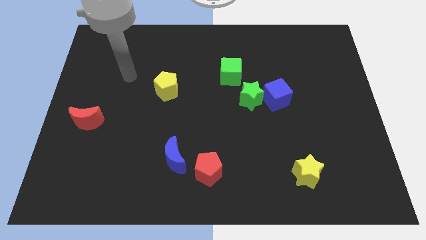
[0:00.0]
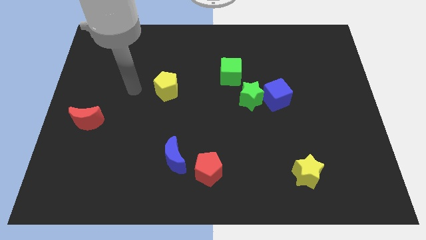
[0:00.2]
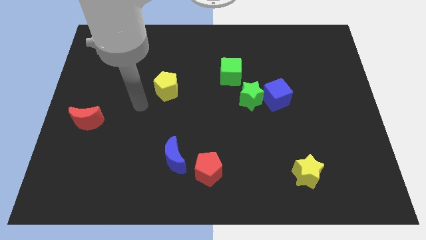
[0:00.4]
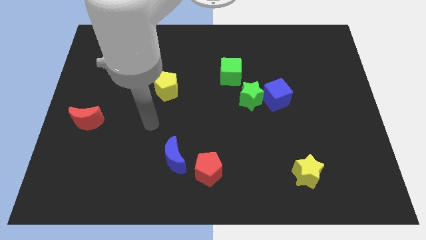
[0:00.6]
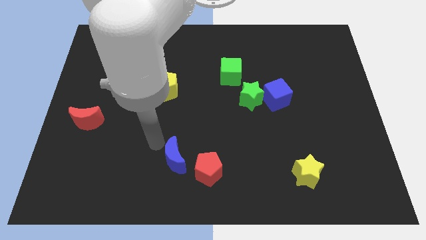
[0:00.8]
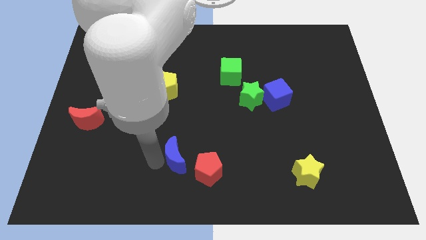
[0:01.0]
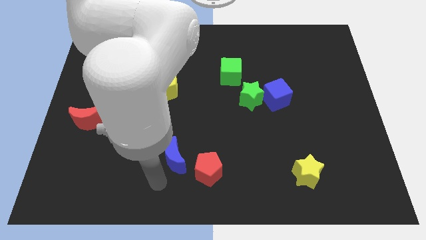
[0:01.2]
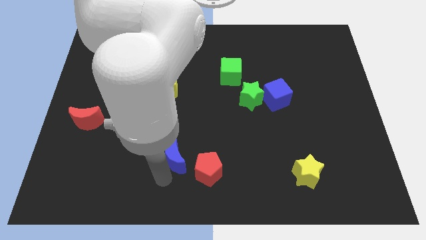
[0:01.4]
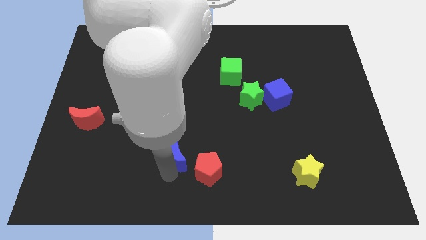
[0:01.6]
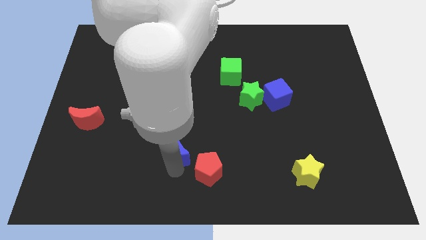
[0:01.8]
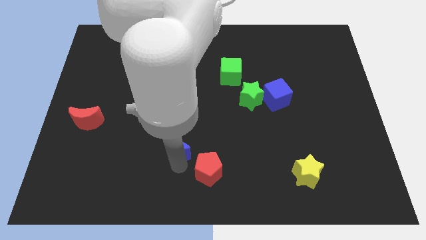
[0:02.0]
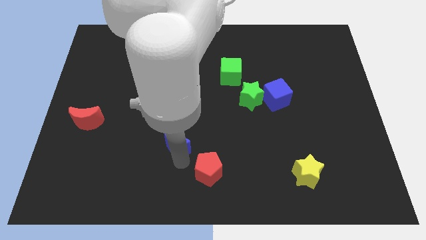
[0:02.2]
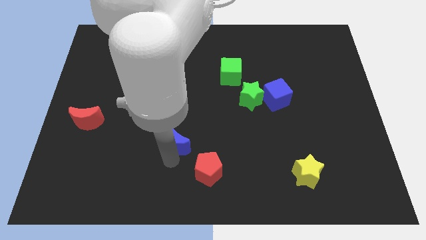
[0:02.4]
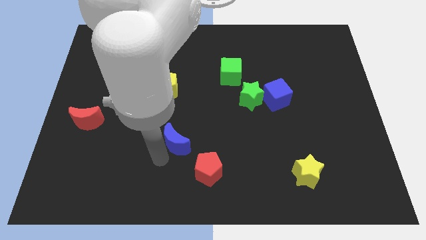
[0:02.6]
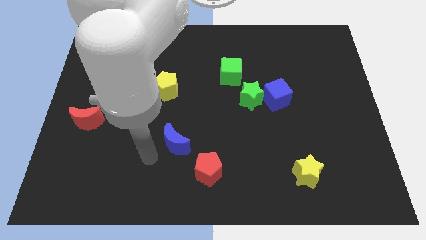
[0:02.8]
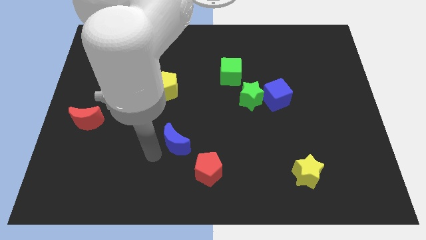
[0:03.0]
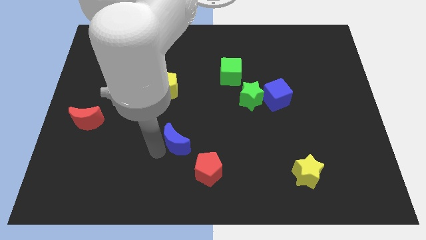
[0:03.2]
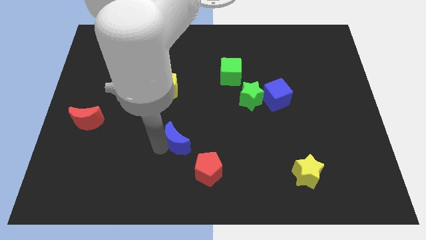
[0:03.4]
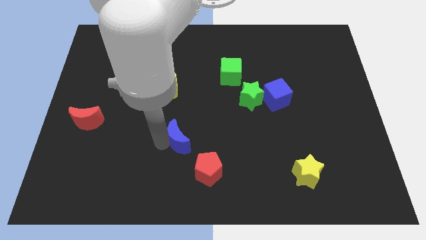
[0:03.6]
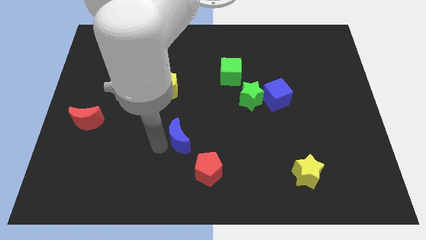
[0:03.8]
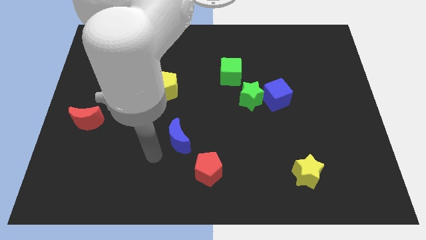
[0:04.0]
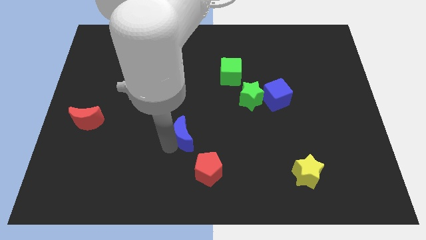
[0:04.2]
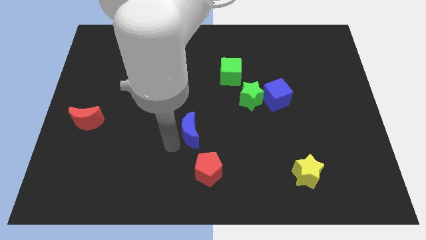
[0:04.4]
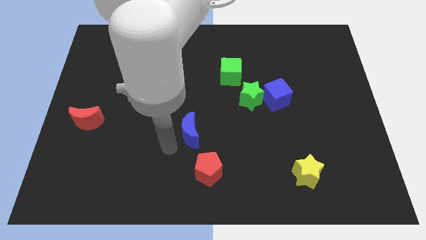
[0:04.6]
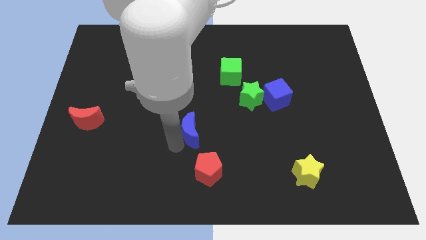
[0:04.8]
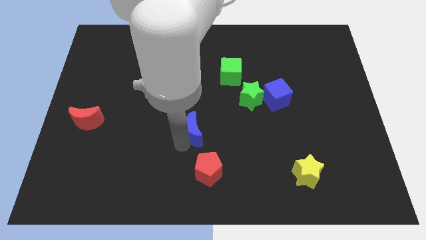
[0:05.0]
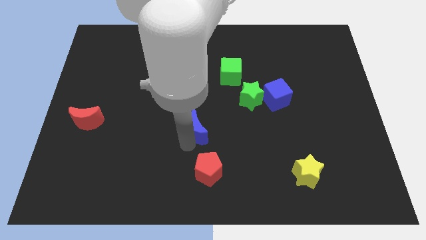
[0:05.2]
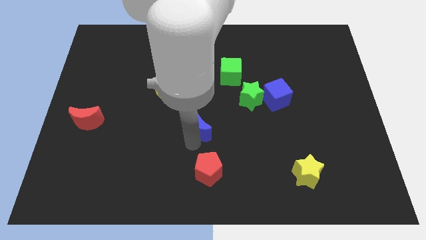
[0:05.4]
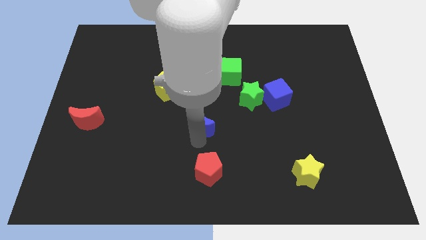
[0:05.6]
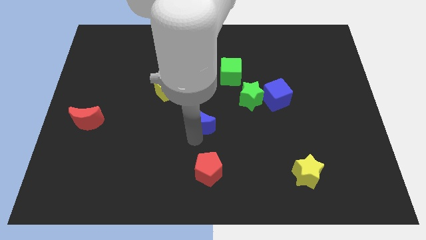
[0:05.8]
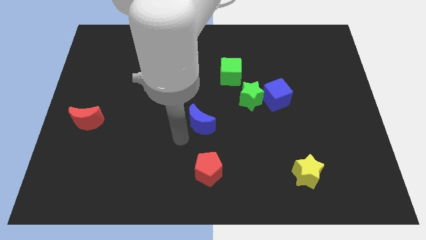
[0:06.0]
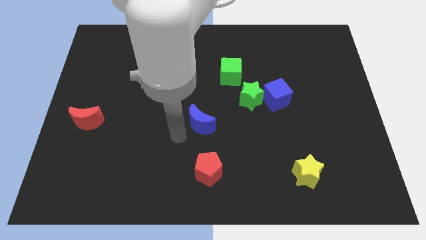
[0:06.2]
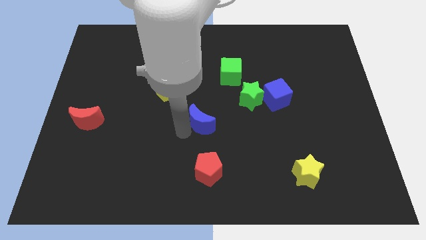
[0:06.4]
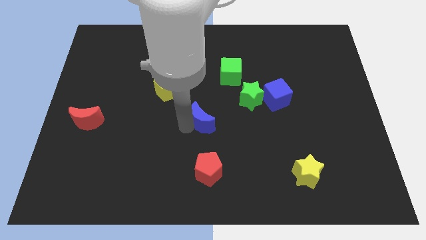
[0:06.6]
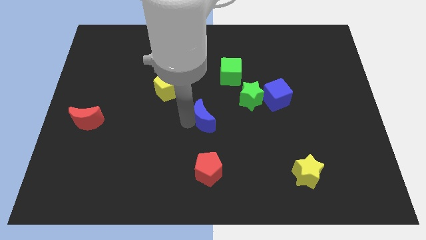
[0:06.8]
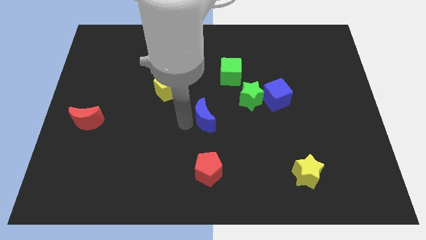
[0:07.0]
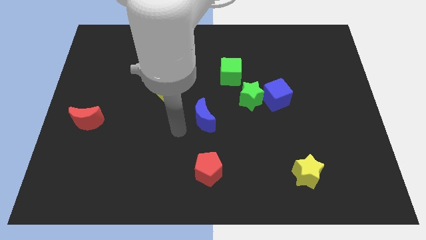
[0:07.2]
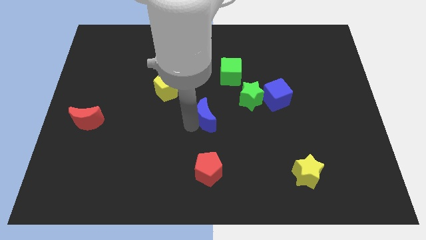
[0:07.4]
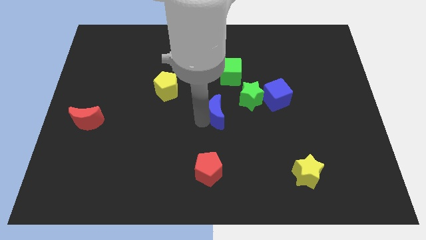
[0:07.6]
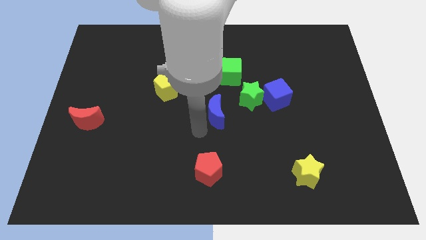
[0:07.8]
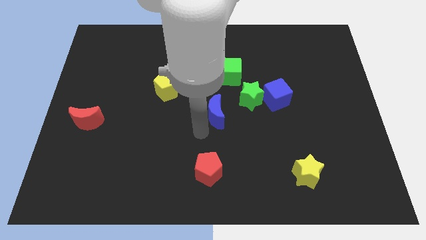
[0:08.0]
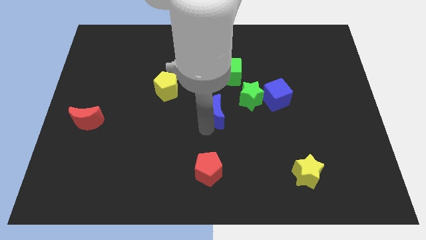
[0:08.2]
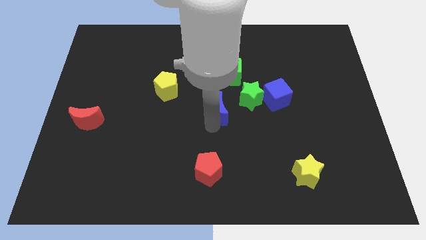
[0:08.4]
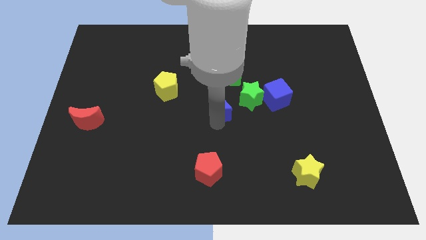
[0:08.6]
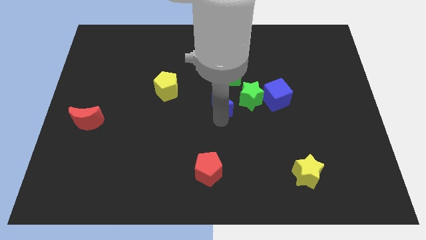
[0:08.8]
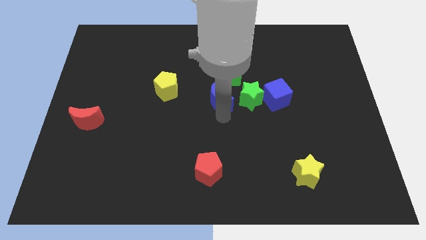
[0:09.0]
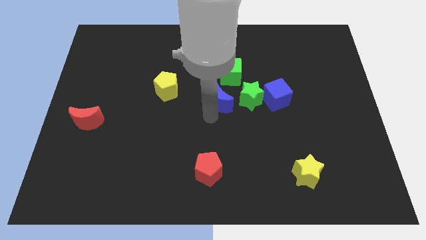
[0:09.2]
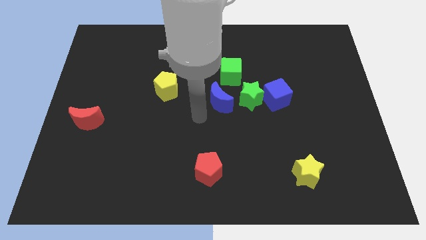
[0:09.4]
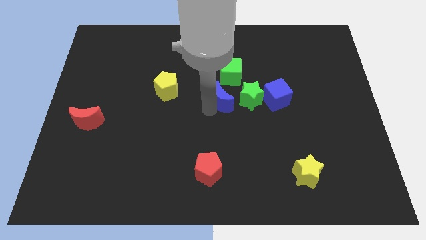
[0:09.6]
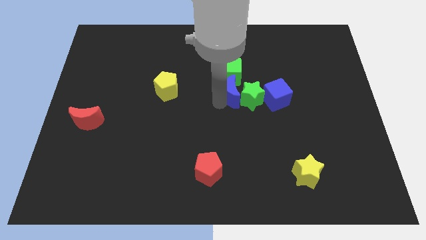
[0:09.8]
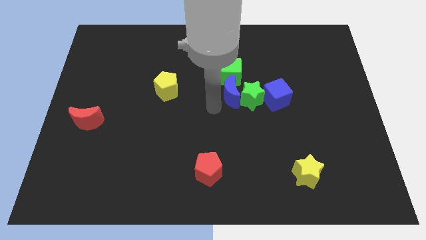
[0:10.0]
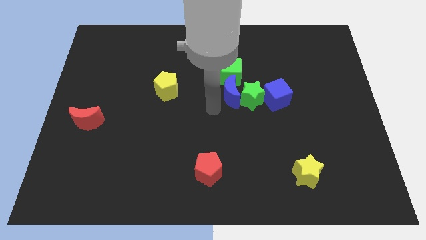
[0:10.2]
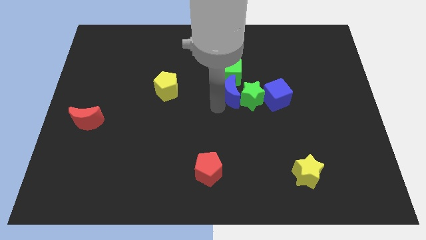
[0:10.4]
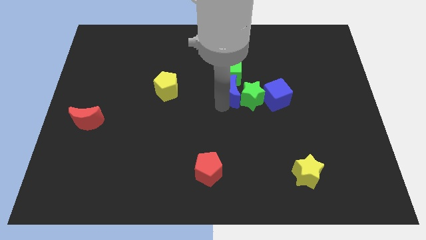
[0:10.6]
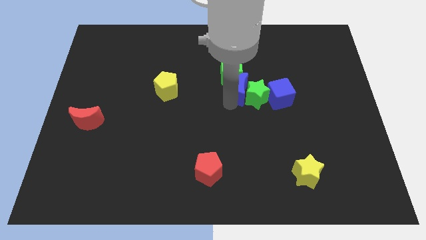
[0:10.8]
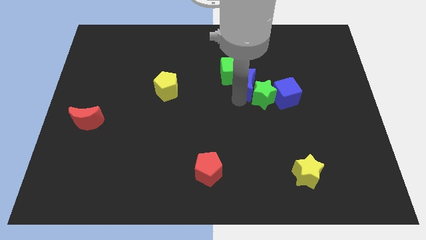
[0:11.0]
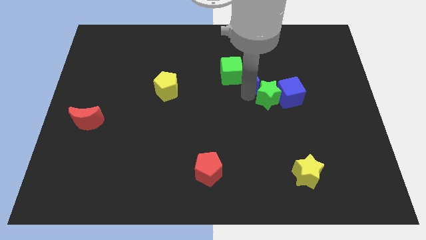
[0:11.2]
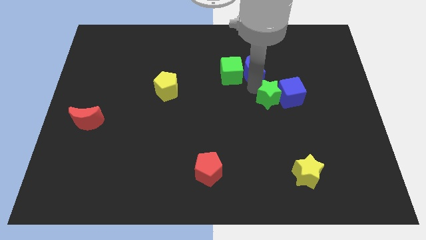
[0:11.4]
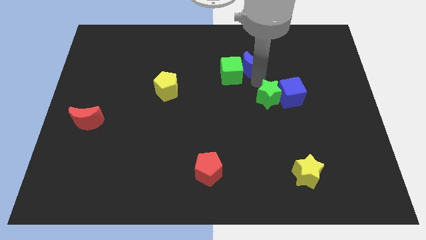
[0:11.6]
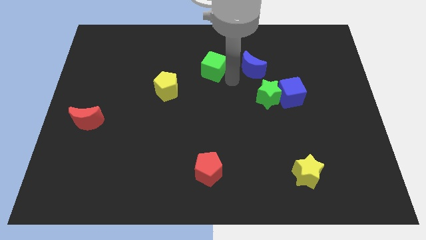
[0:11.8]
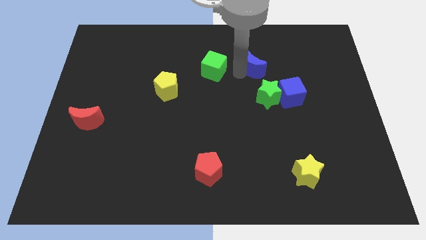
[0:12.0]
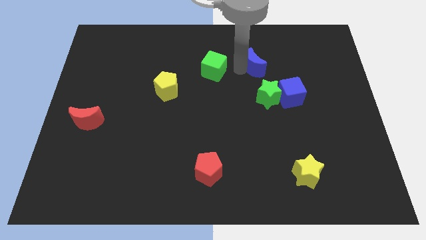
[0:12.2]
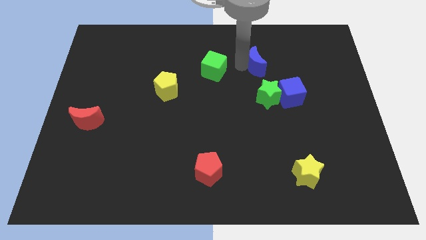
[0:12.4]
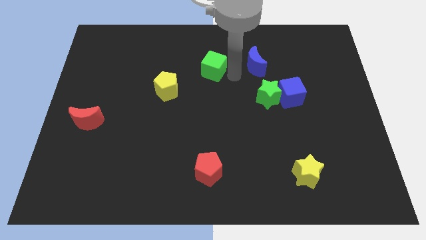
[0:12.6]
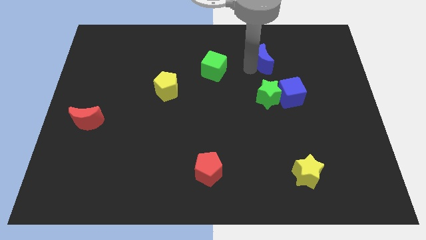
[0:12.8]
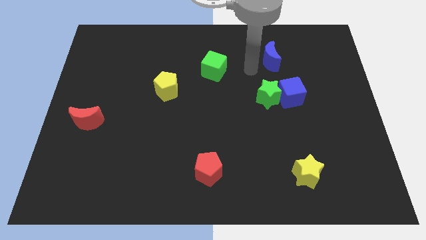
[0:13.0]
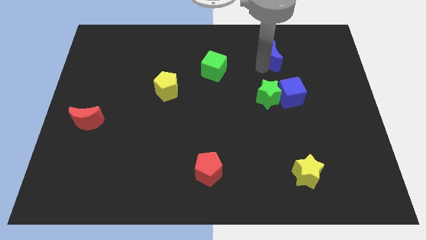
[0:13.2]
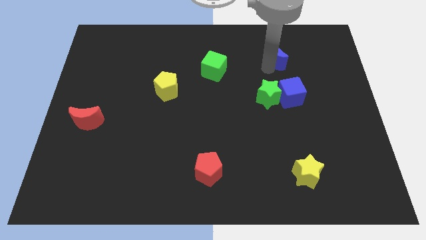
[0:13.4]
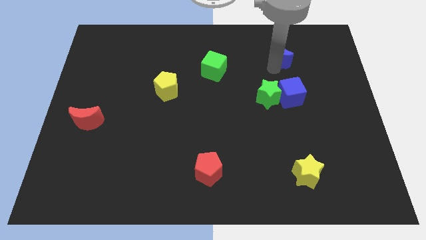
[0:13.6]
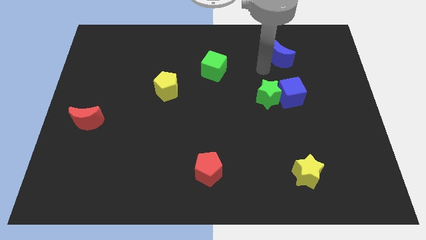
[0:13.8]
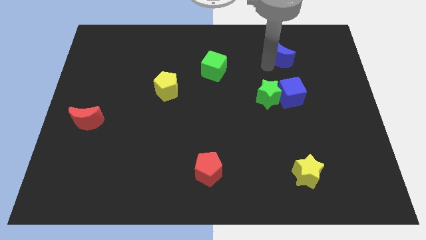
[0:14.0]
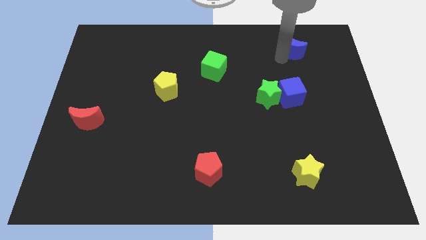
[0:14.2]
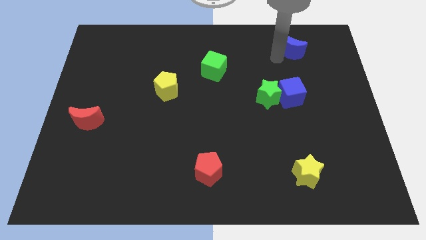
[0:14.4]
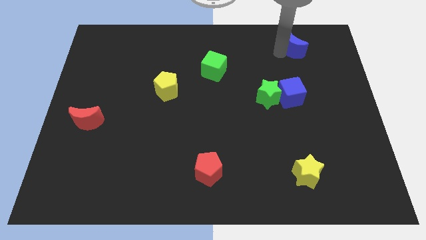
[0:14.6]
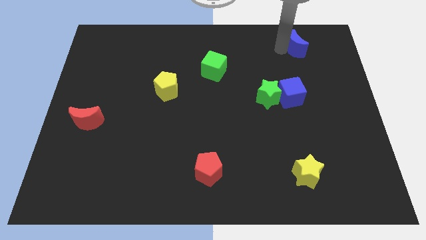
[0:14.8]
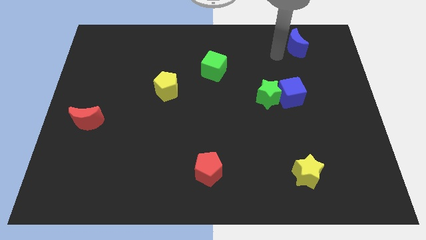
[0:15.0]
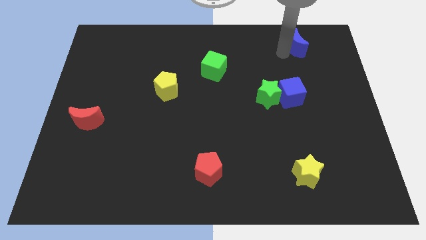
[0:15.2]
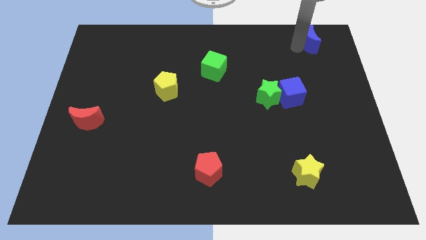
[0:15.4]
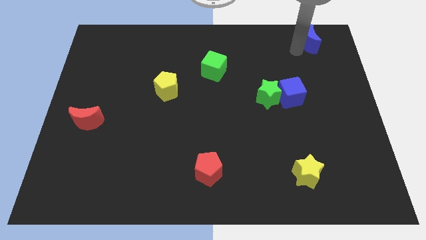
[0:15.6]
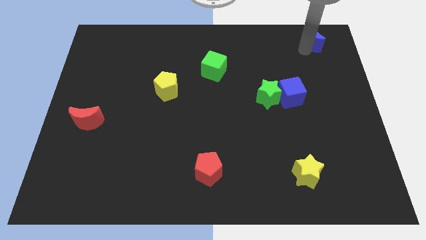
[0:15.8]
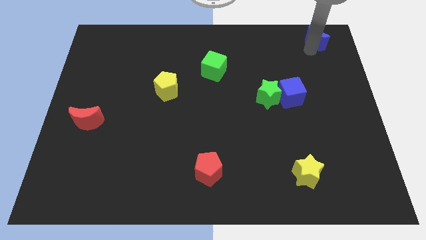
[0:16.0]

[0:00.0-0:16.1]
put the blue moon to the top right corner
